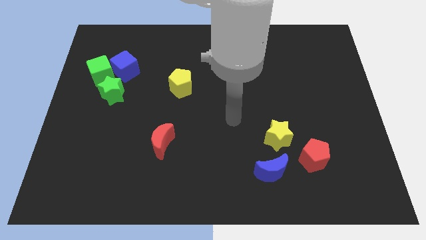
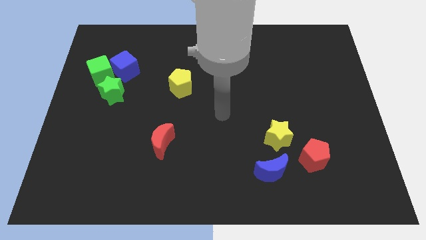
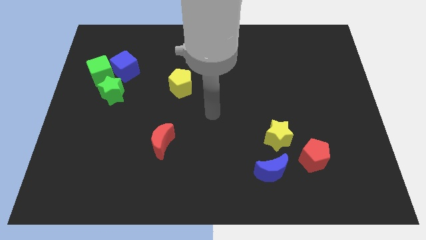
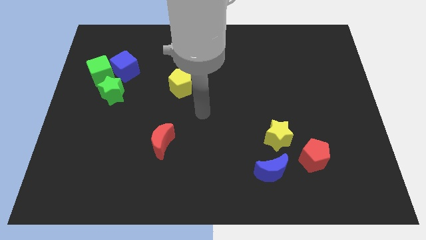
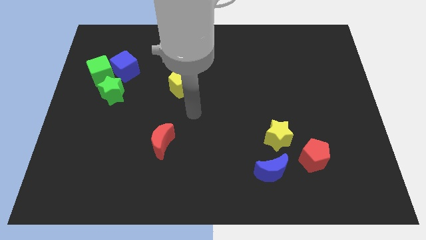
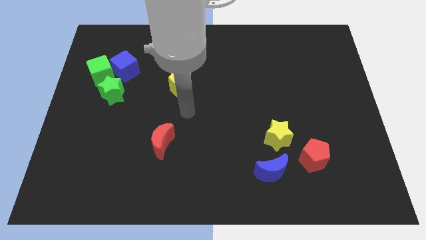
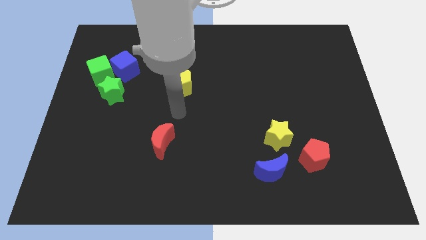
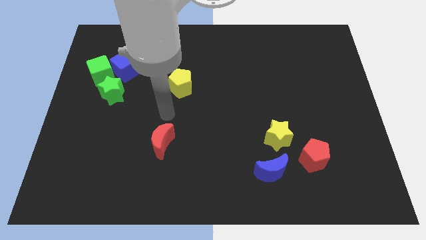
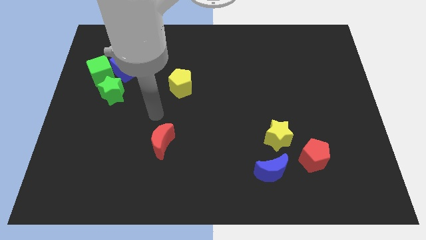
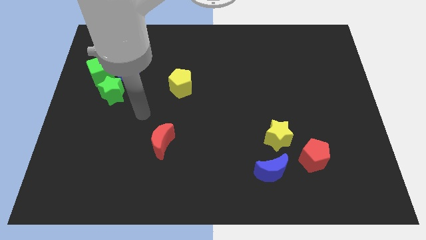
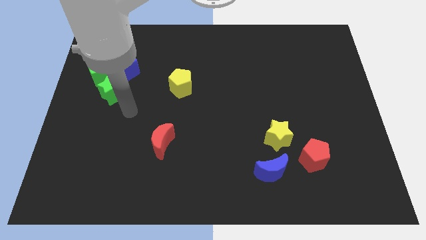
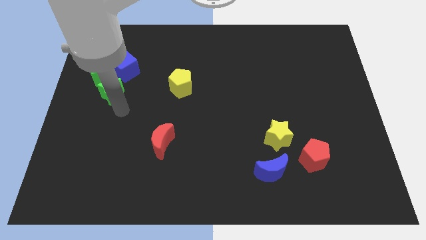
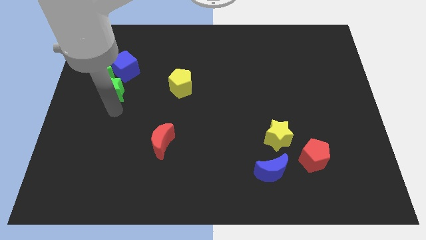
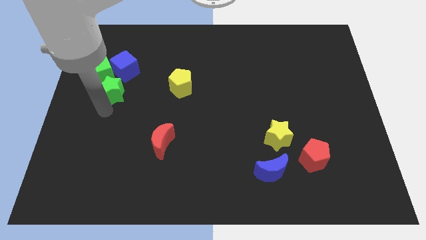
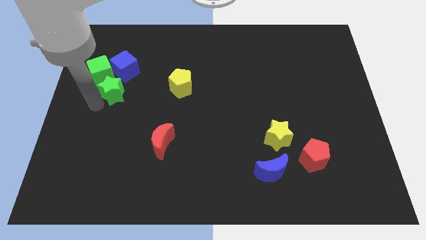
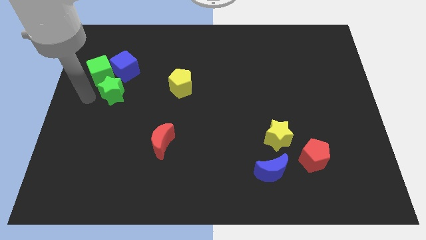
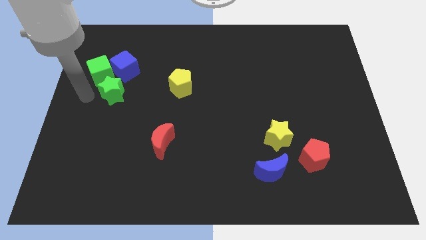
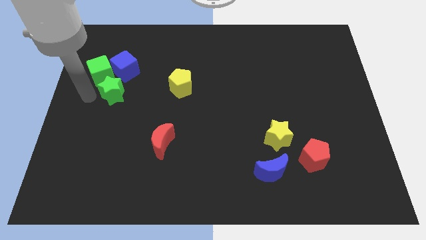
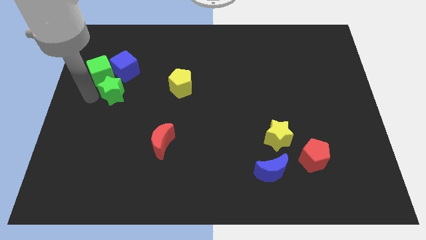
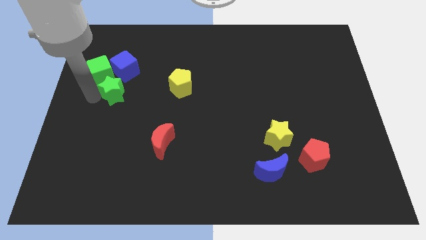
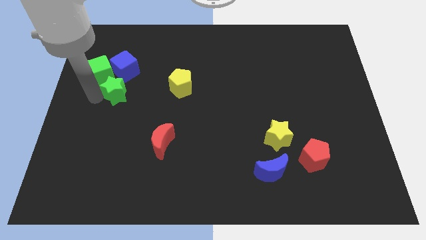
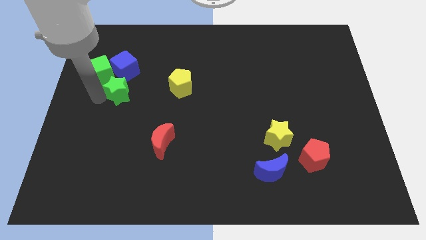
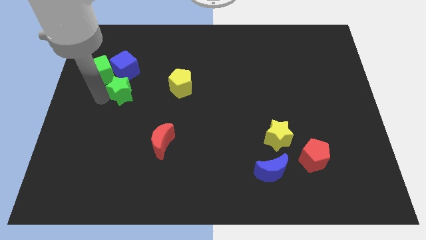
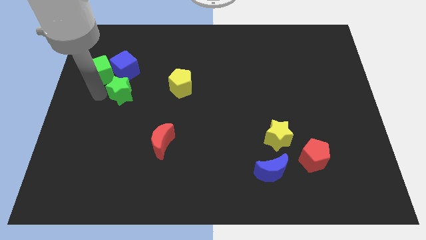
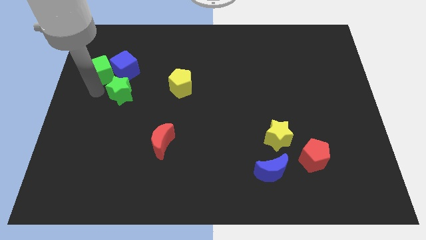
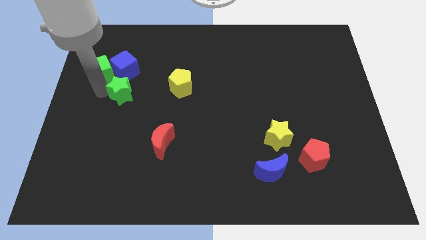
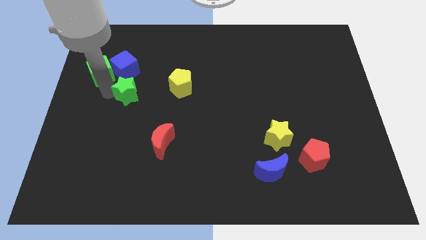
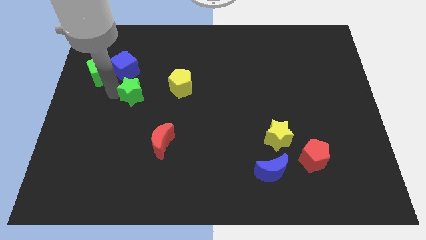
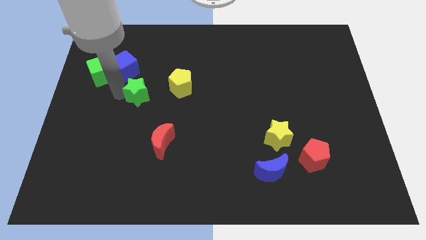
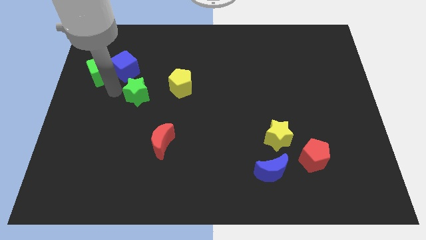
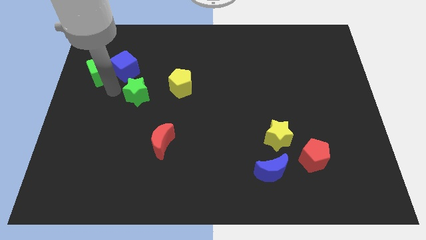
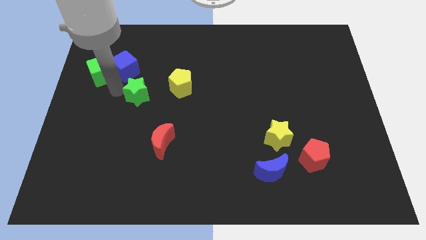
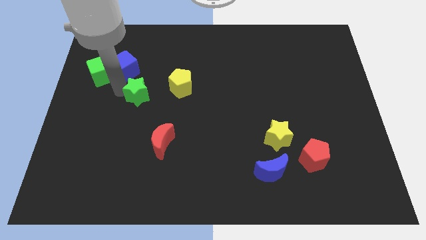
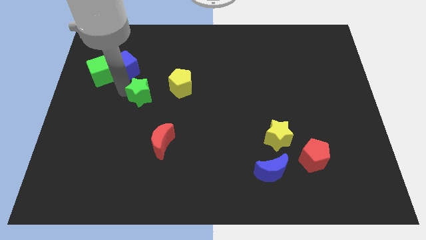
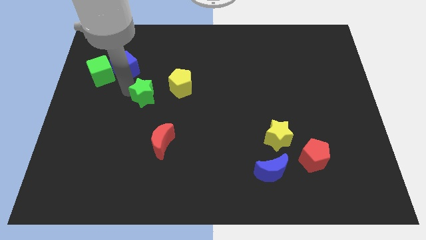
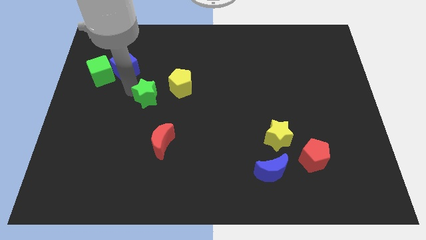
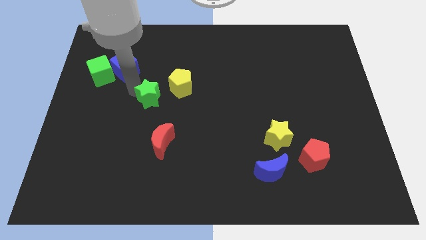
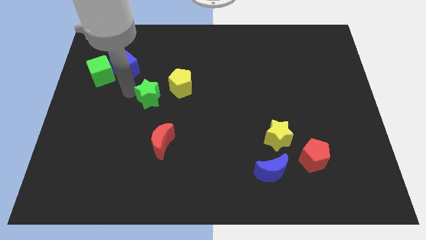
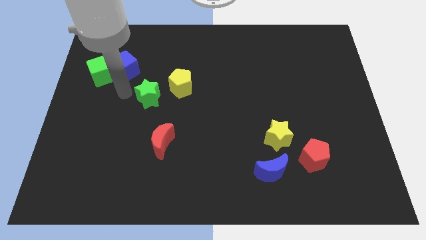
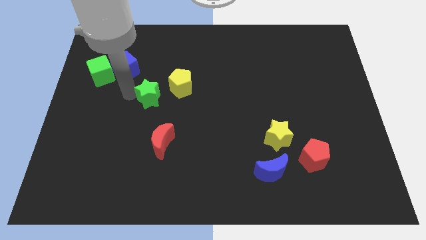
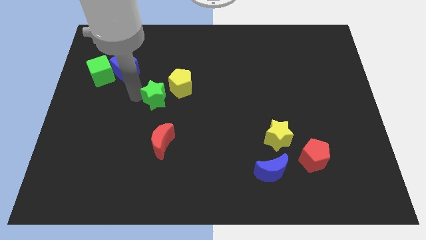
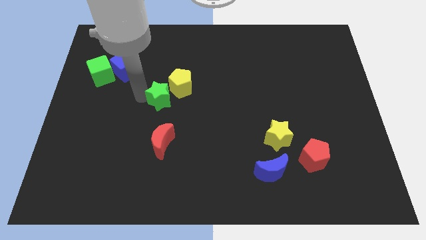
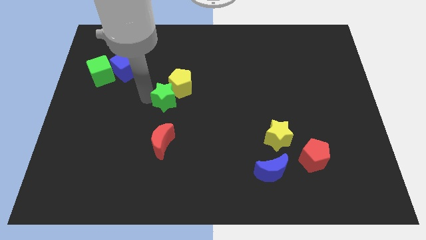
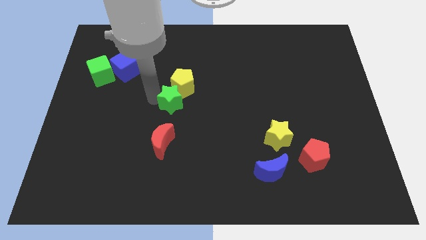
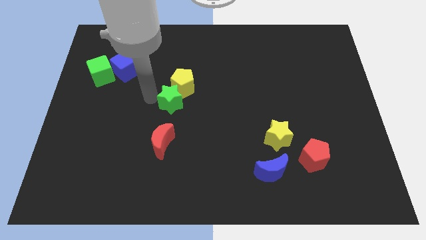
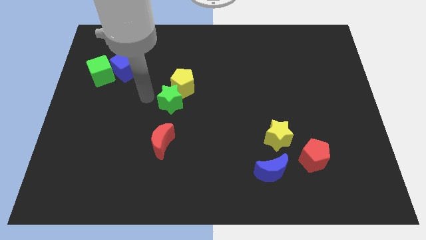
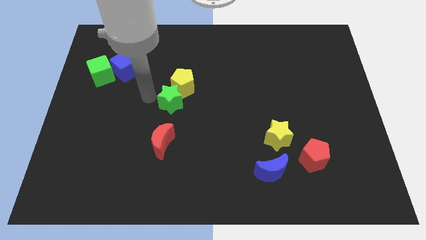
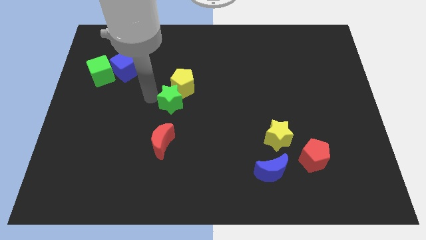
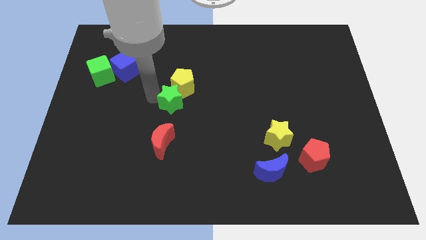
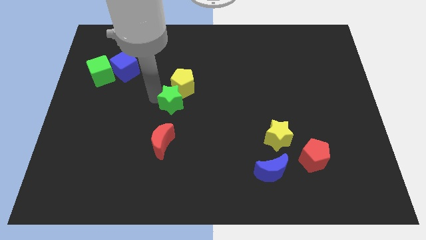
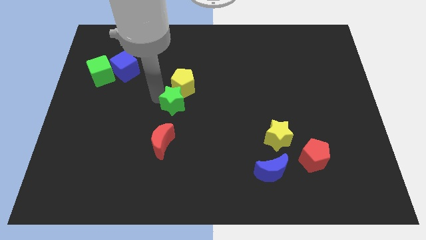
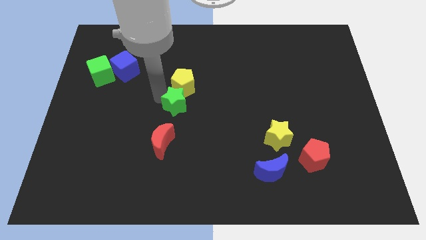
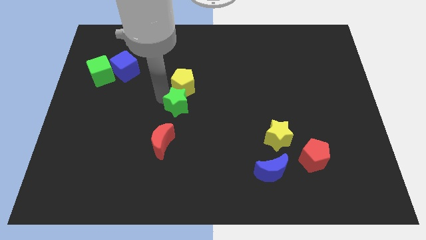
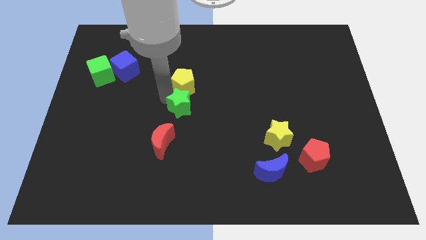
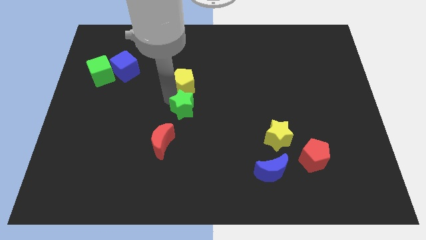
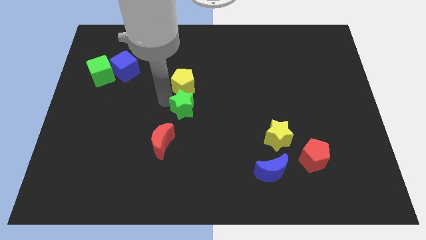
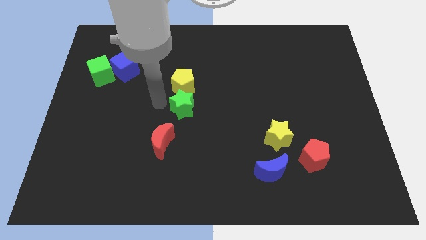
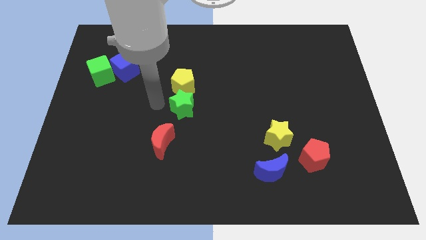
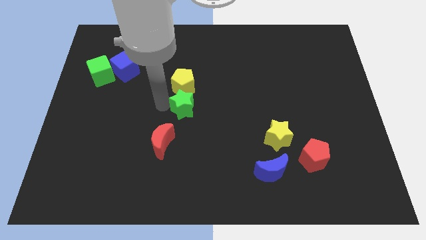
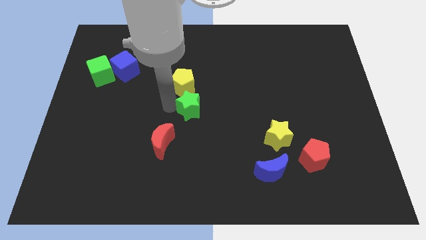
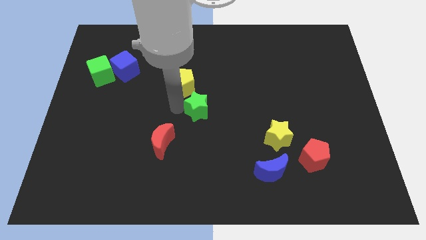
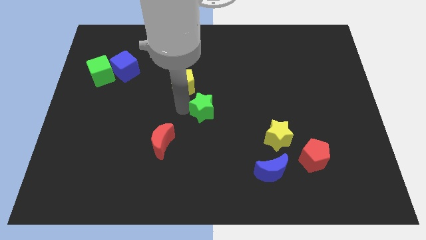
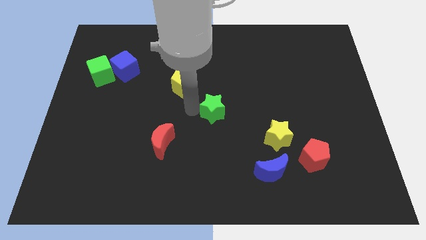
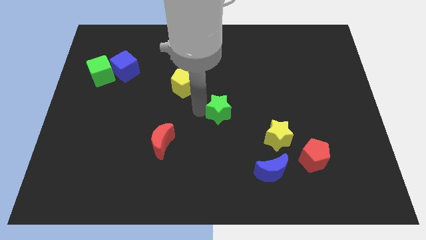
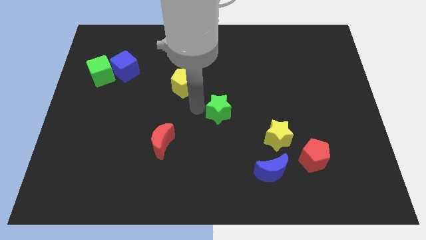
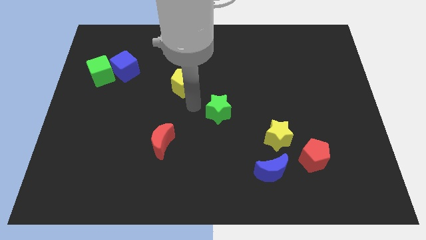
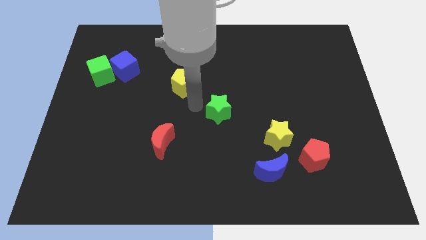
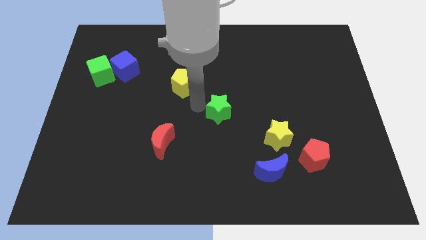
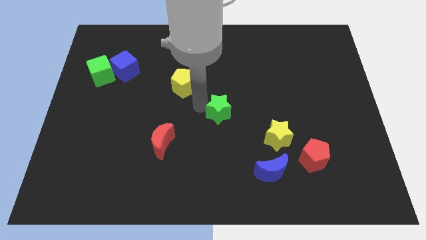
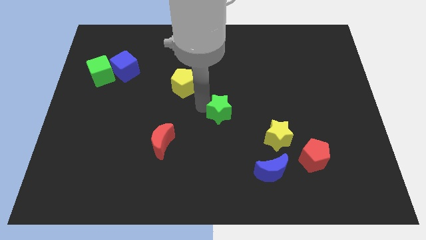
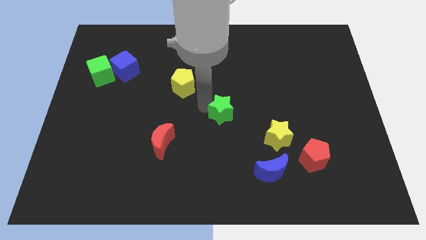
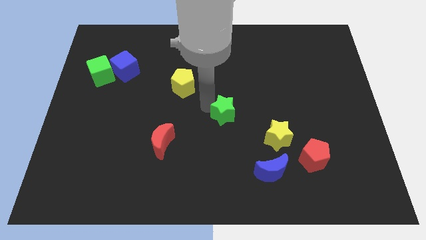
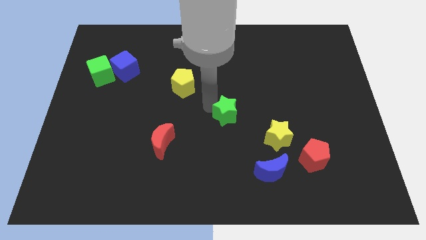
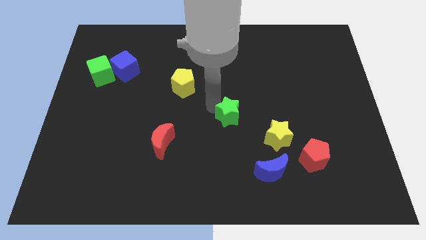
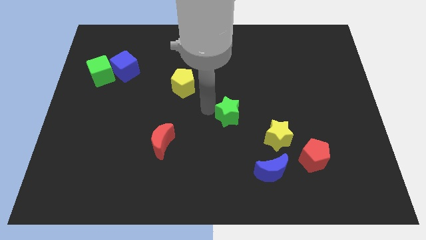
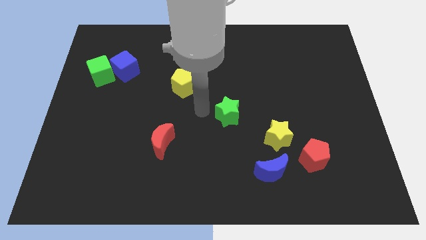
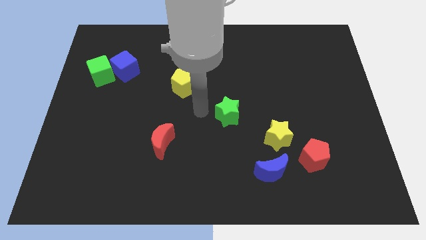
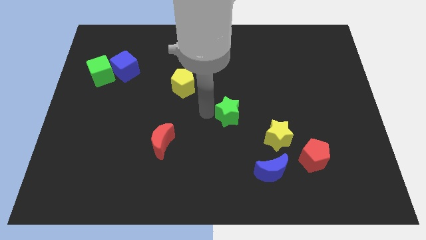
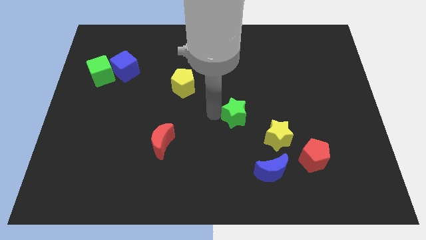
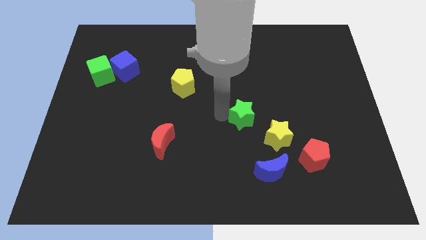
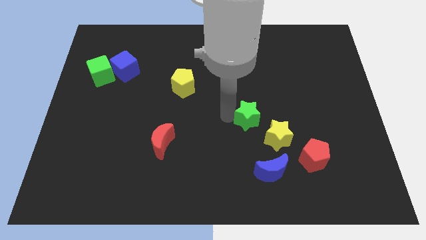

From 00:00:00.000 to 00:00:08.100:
push the green star to the top side of the blue moon
